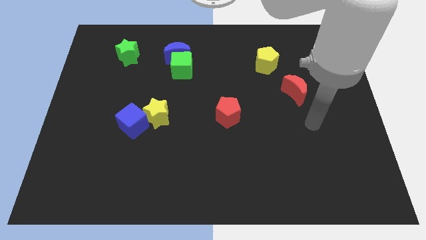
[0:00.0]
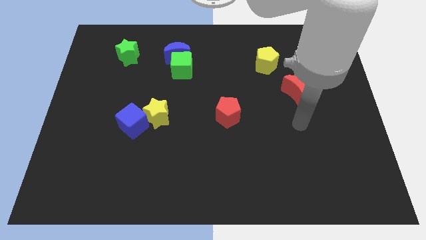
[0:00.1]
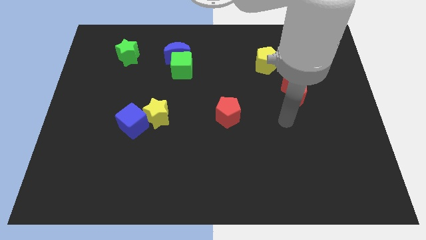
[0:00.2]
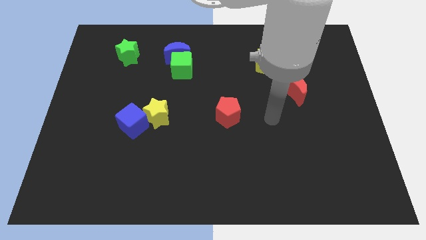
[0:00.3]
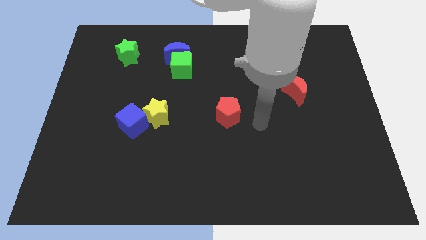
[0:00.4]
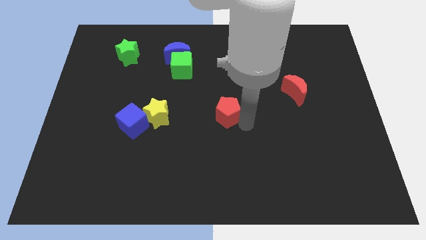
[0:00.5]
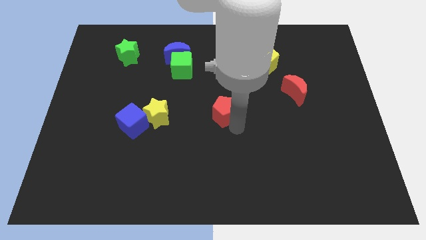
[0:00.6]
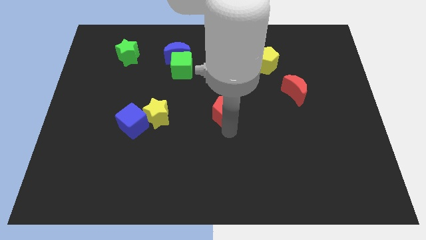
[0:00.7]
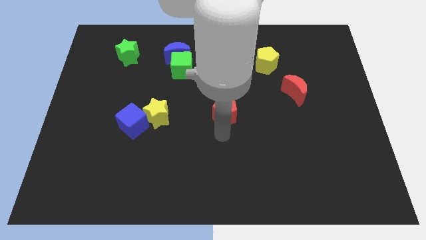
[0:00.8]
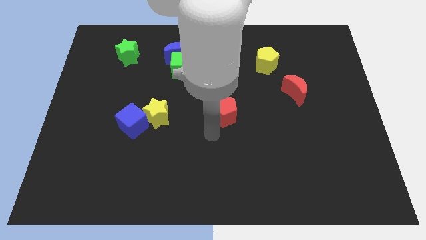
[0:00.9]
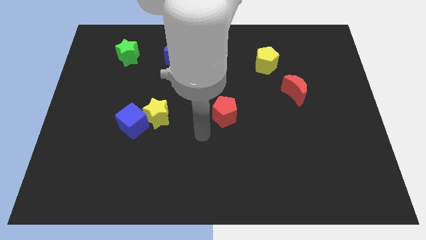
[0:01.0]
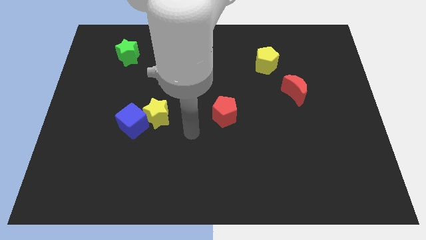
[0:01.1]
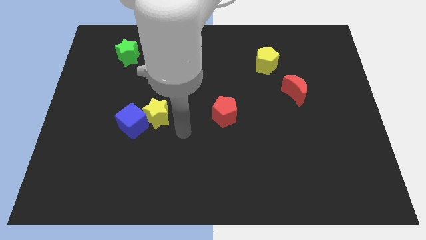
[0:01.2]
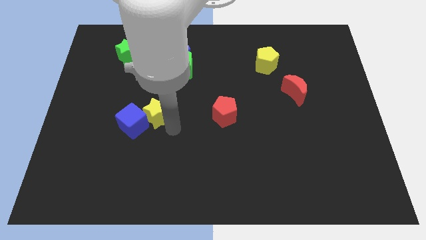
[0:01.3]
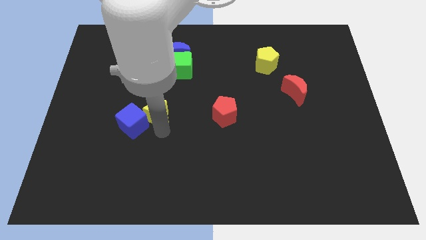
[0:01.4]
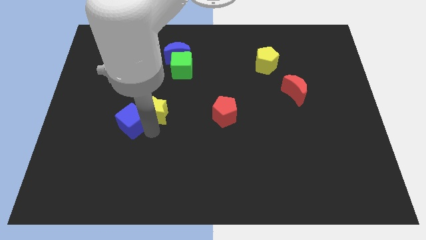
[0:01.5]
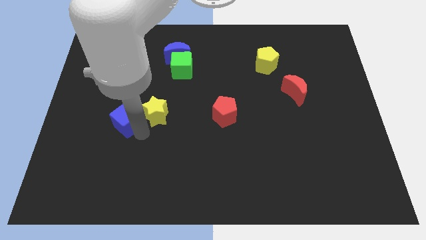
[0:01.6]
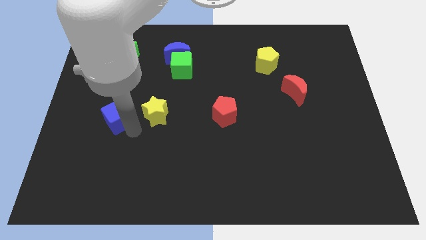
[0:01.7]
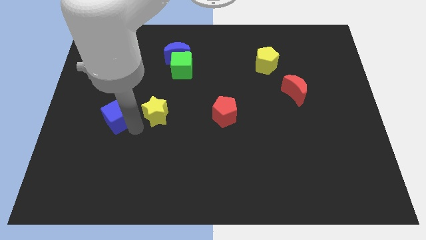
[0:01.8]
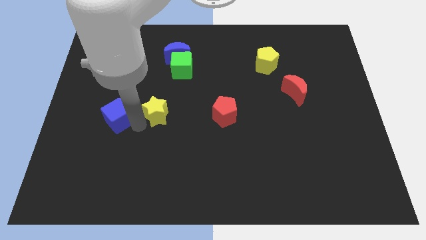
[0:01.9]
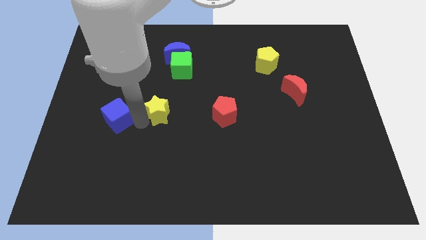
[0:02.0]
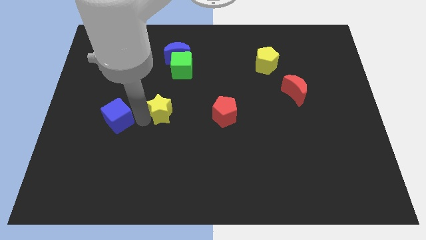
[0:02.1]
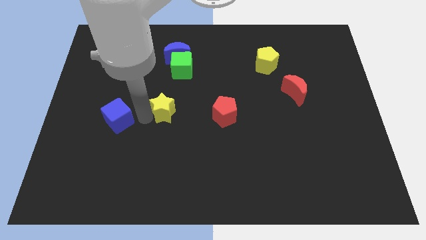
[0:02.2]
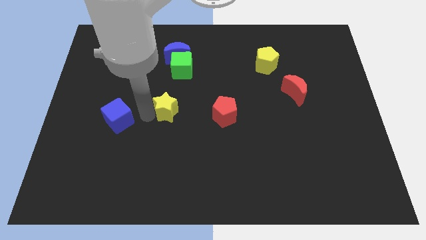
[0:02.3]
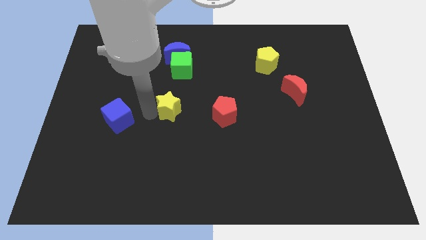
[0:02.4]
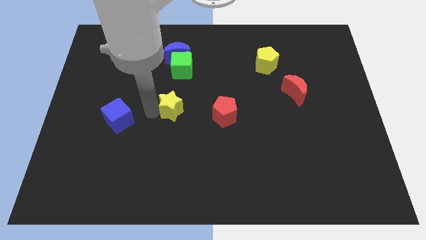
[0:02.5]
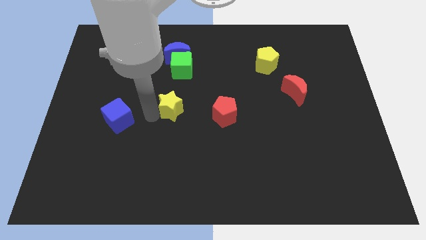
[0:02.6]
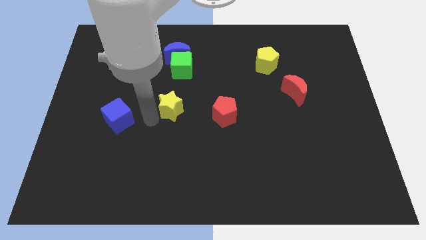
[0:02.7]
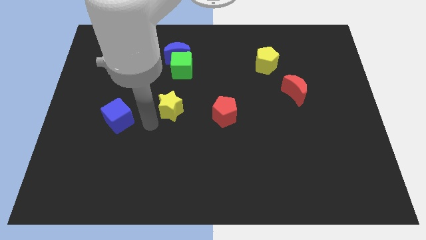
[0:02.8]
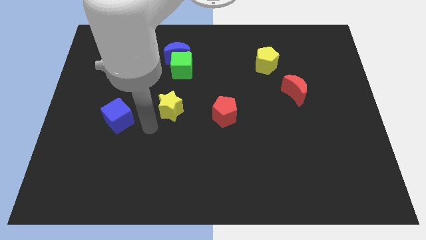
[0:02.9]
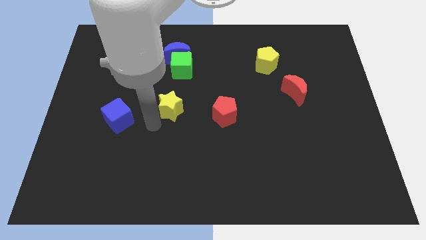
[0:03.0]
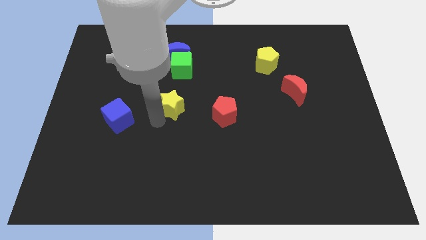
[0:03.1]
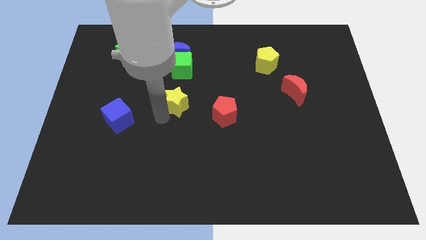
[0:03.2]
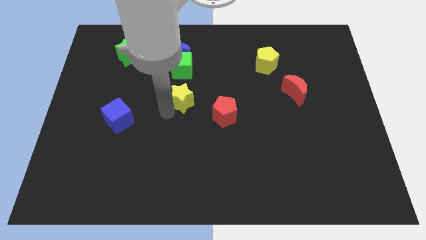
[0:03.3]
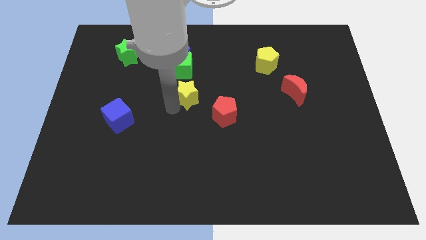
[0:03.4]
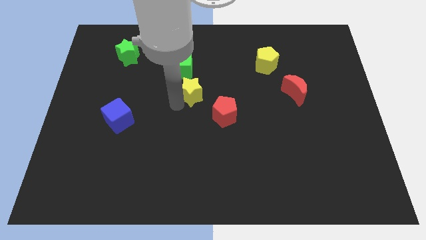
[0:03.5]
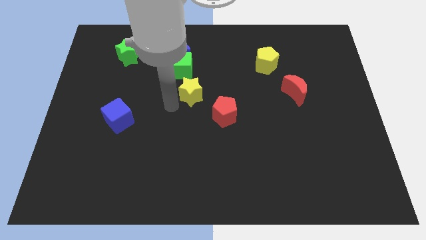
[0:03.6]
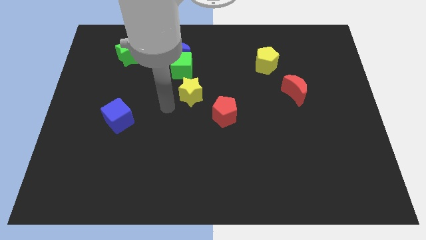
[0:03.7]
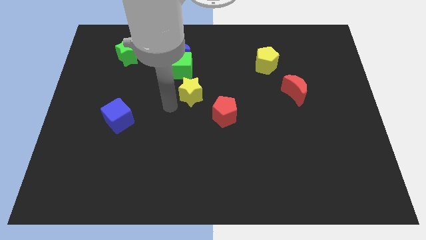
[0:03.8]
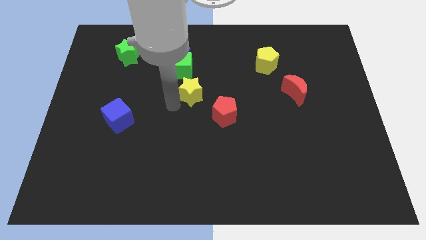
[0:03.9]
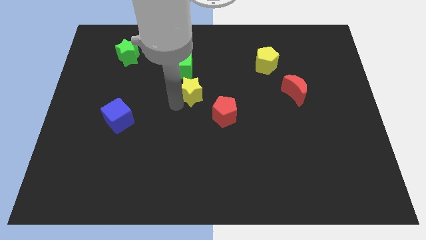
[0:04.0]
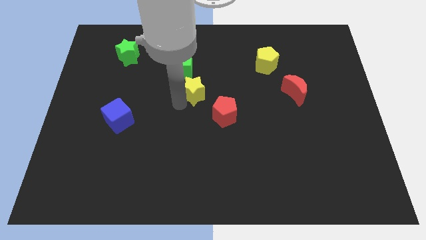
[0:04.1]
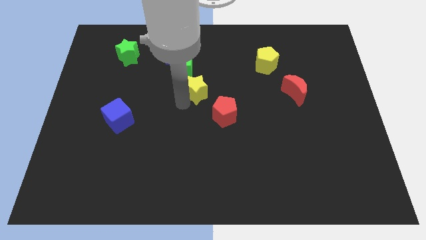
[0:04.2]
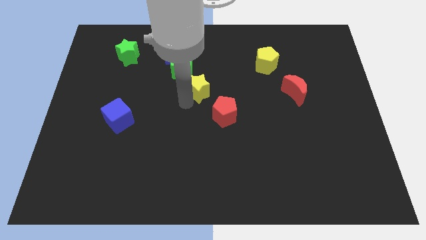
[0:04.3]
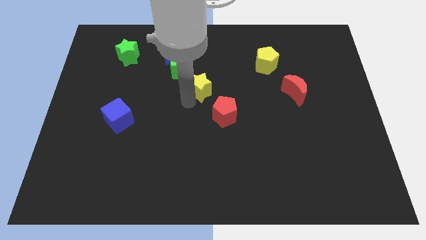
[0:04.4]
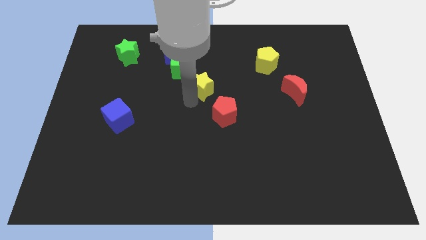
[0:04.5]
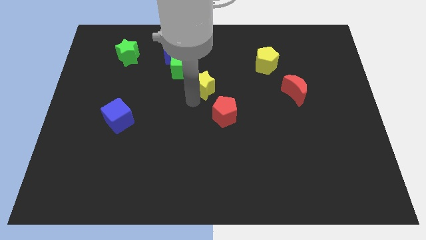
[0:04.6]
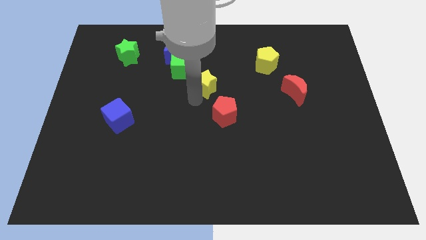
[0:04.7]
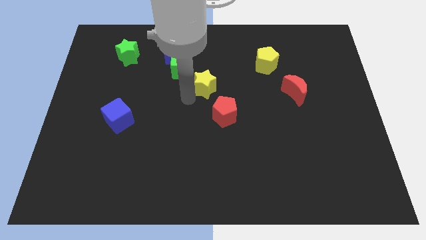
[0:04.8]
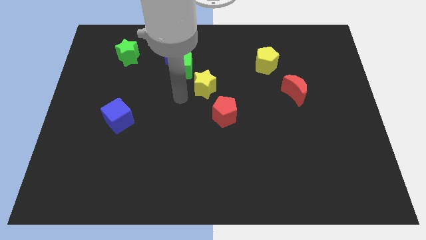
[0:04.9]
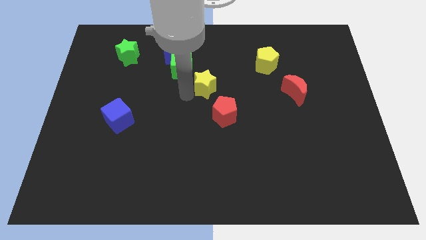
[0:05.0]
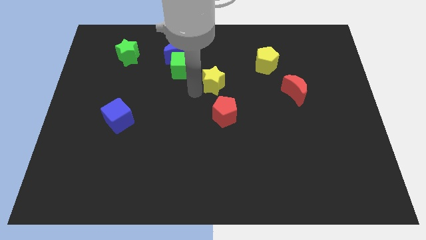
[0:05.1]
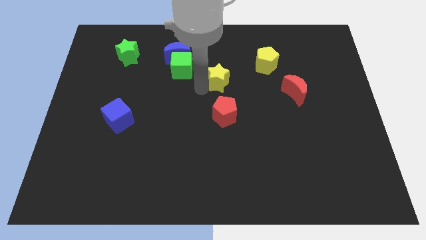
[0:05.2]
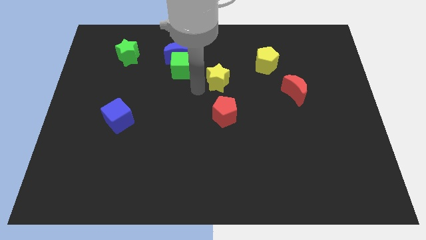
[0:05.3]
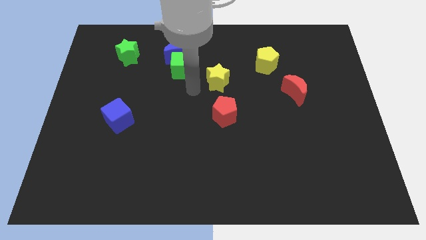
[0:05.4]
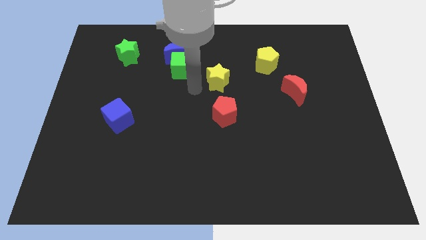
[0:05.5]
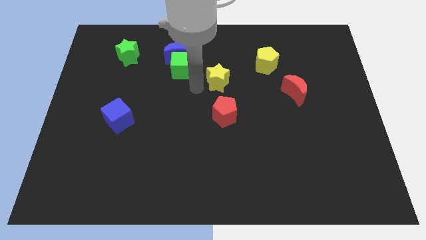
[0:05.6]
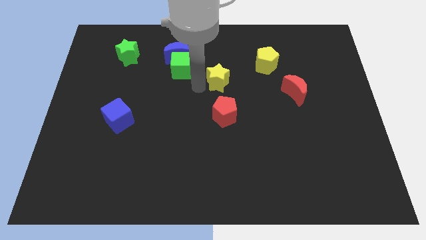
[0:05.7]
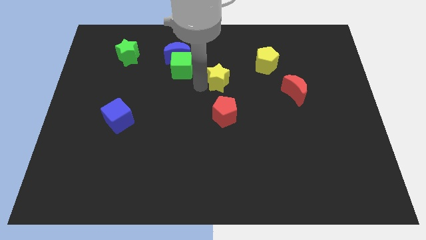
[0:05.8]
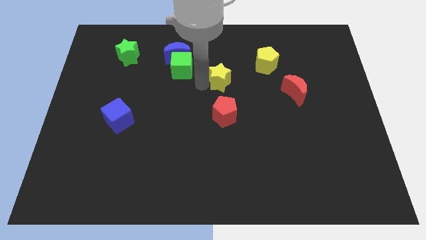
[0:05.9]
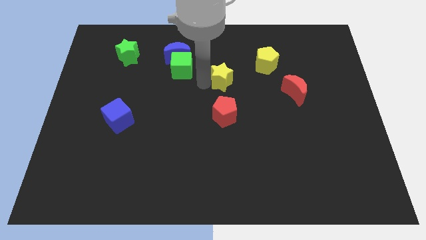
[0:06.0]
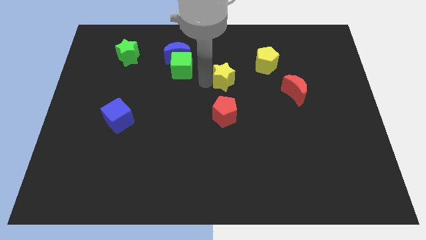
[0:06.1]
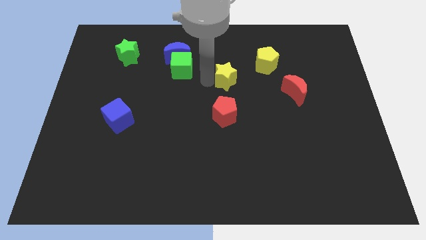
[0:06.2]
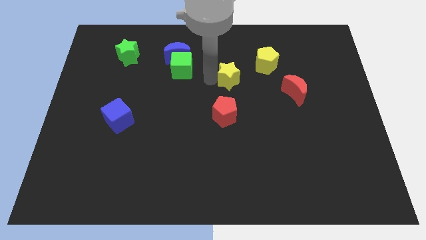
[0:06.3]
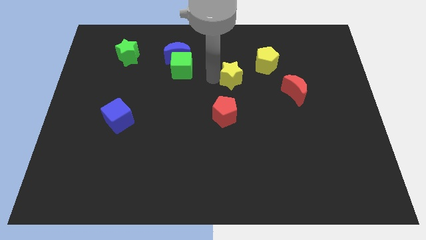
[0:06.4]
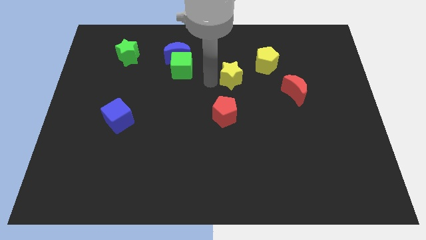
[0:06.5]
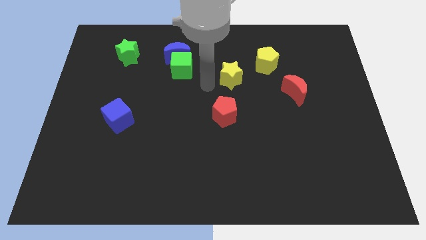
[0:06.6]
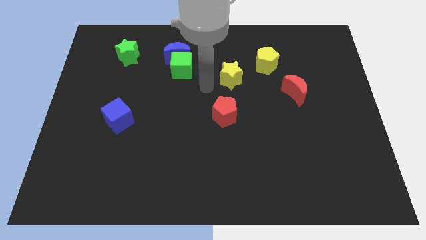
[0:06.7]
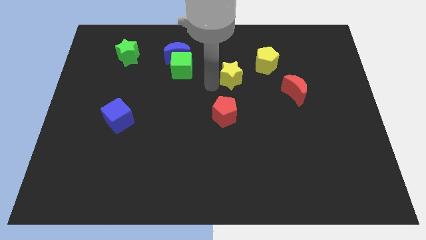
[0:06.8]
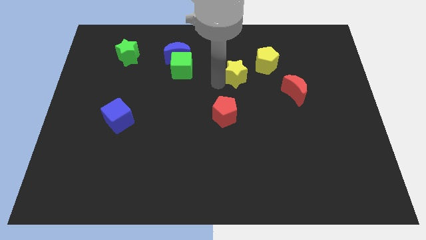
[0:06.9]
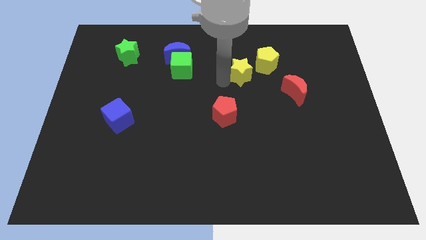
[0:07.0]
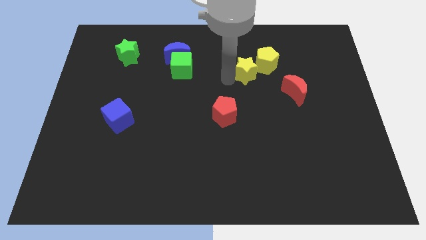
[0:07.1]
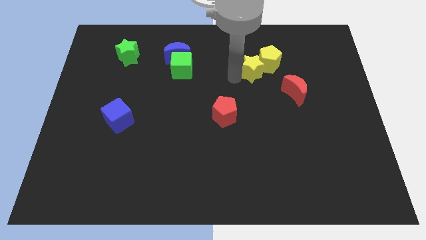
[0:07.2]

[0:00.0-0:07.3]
push the yellow star to the yellow pentagon
